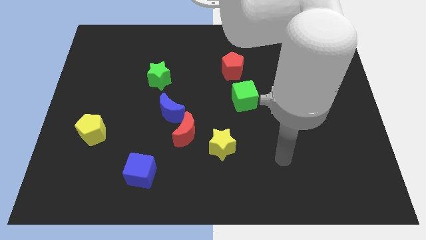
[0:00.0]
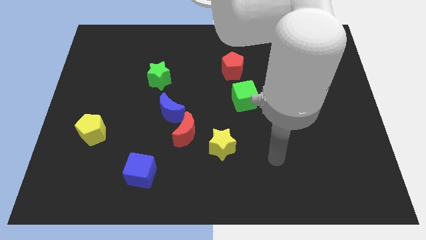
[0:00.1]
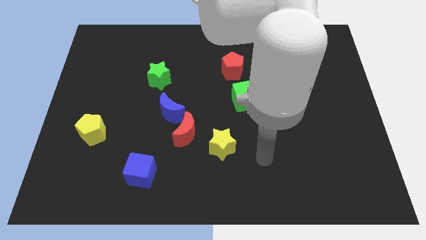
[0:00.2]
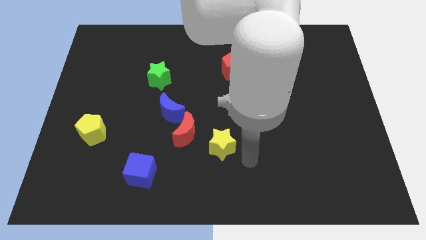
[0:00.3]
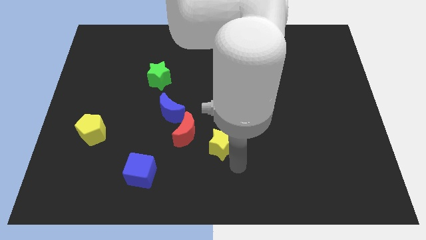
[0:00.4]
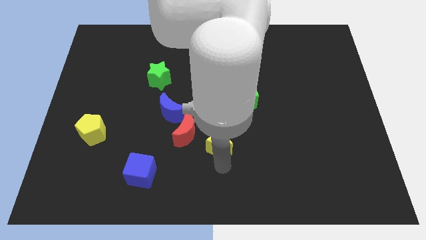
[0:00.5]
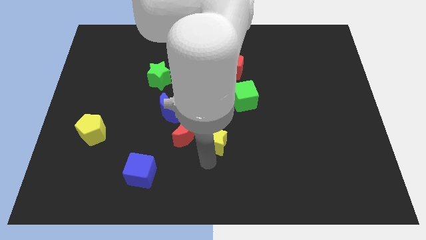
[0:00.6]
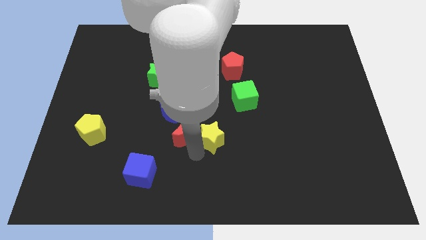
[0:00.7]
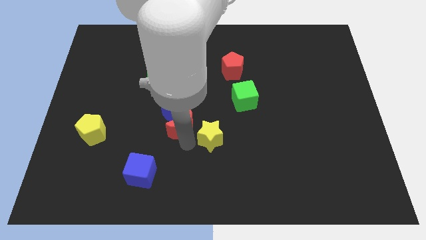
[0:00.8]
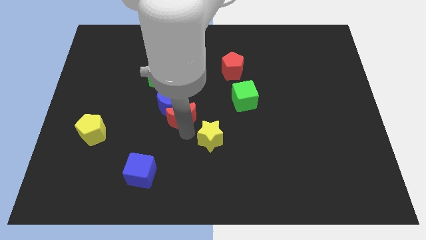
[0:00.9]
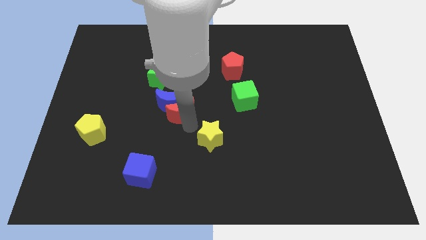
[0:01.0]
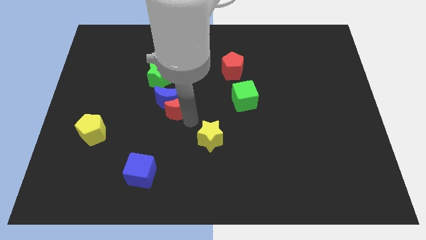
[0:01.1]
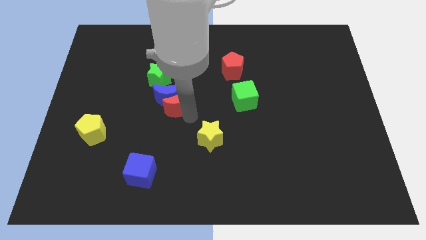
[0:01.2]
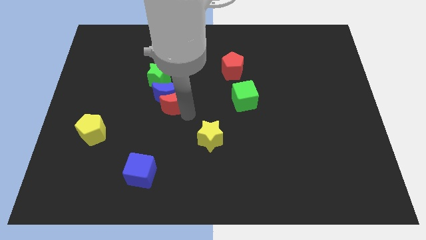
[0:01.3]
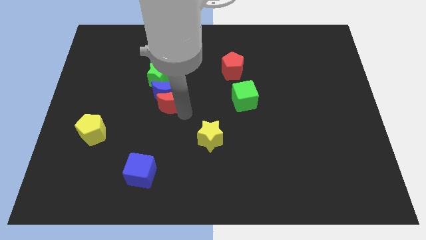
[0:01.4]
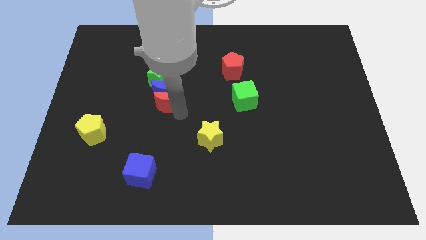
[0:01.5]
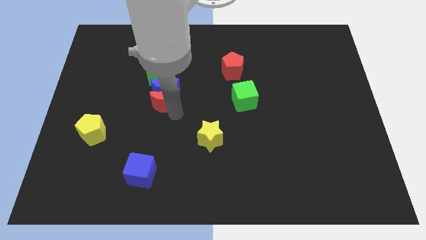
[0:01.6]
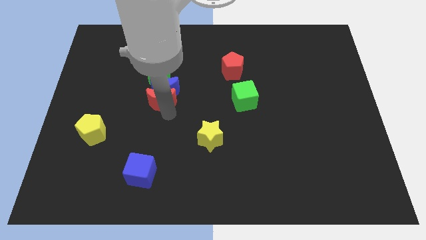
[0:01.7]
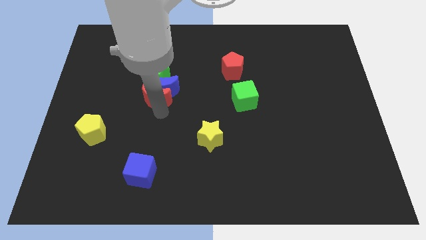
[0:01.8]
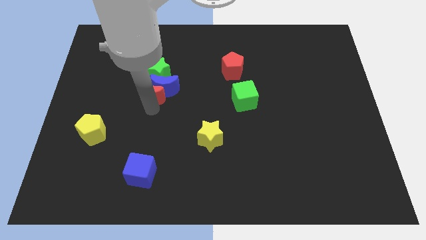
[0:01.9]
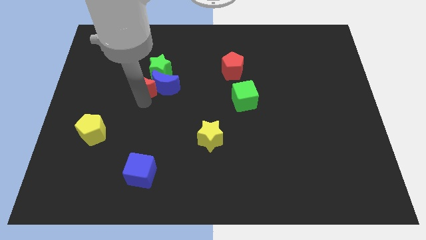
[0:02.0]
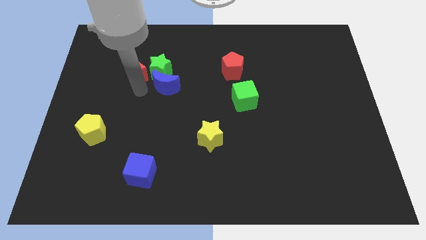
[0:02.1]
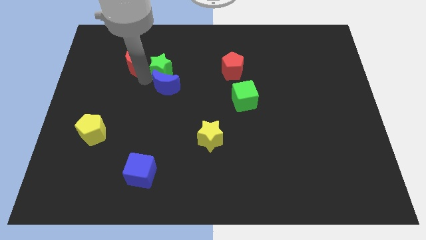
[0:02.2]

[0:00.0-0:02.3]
separate the blue moon from the red moon

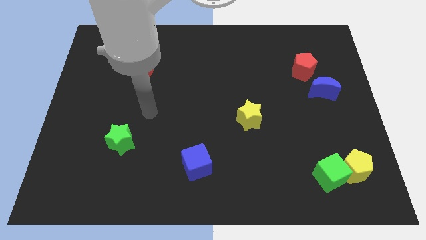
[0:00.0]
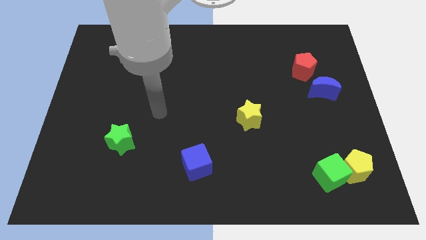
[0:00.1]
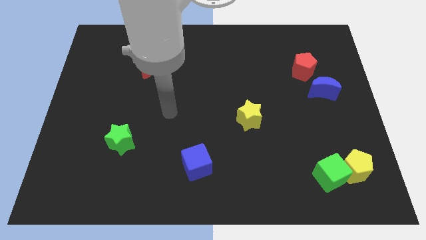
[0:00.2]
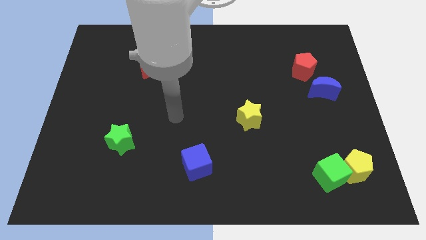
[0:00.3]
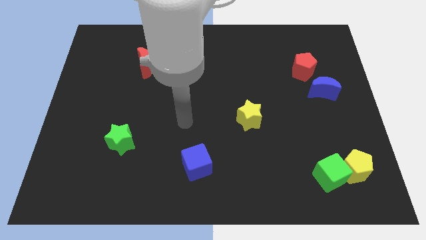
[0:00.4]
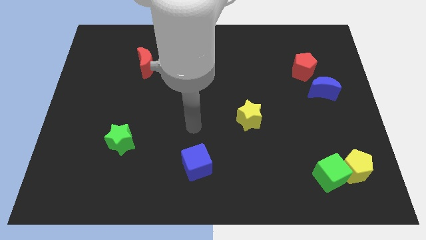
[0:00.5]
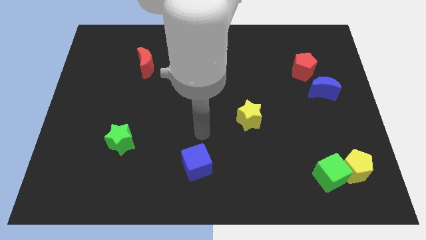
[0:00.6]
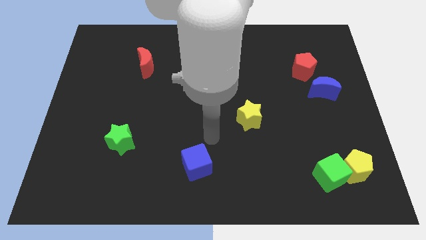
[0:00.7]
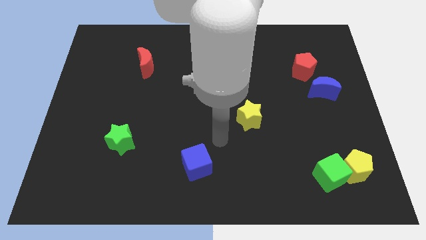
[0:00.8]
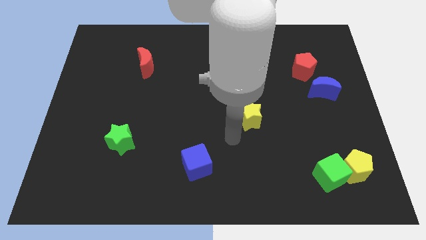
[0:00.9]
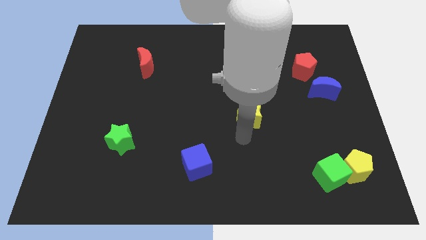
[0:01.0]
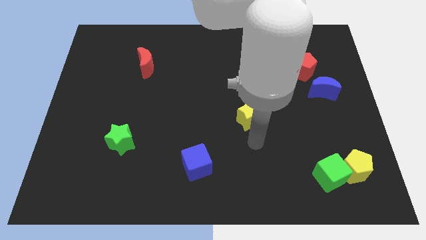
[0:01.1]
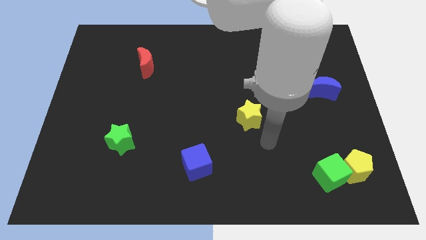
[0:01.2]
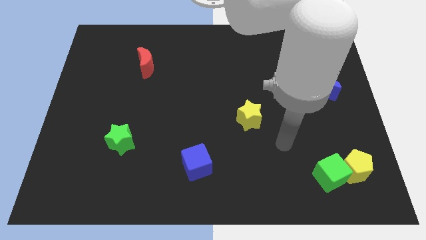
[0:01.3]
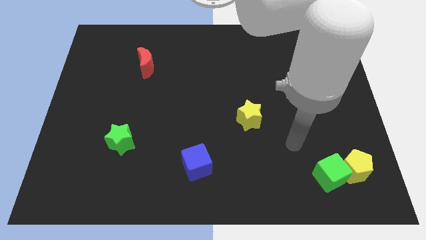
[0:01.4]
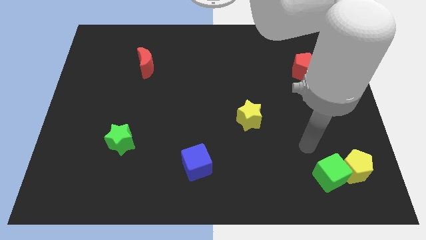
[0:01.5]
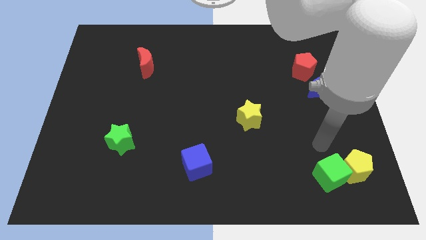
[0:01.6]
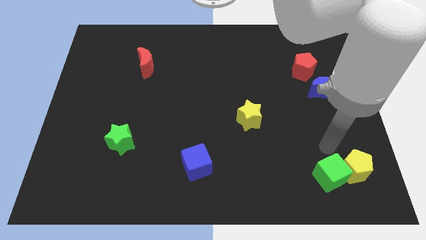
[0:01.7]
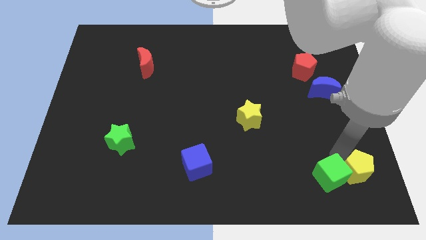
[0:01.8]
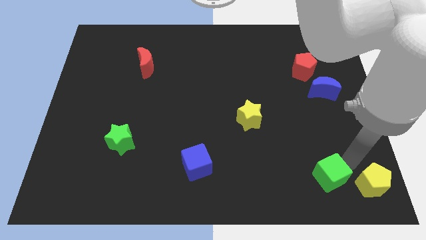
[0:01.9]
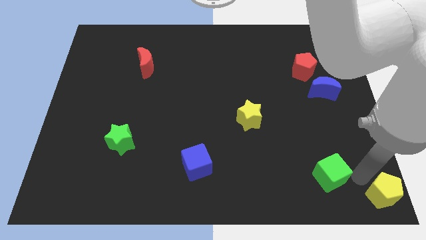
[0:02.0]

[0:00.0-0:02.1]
move the green cube away from the yellow pentagon

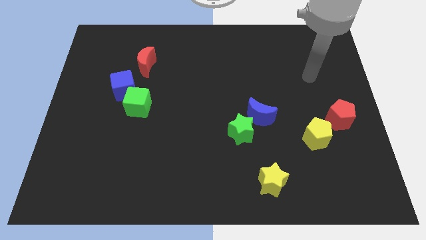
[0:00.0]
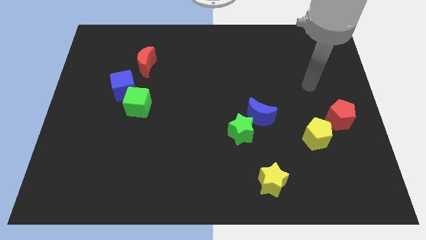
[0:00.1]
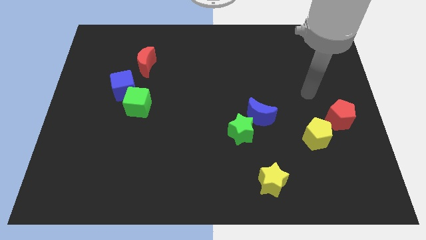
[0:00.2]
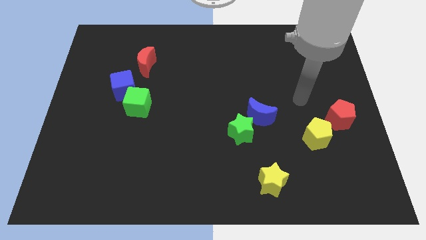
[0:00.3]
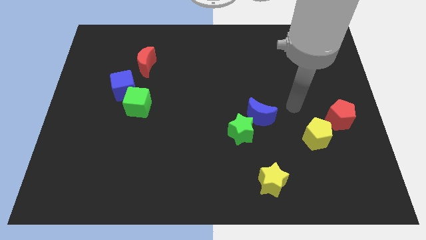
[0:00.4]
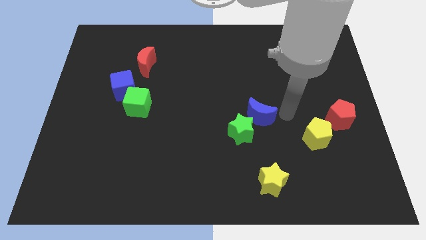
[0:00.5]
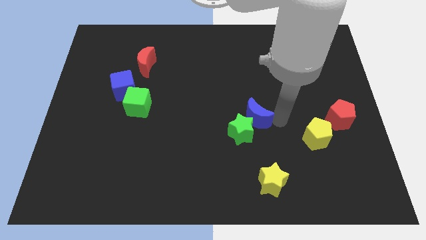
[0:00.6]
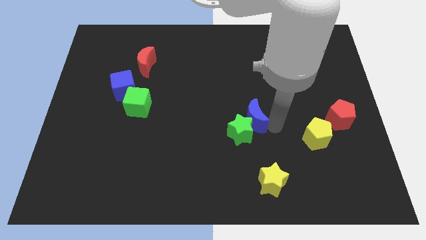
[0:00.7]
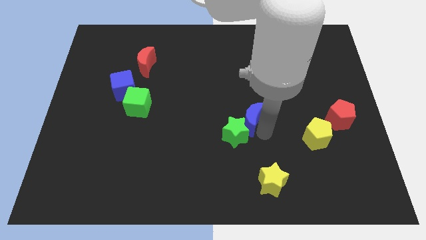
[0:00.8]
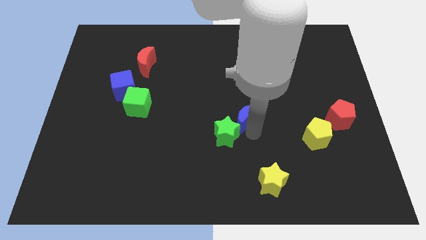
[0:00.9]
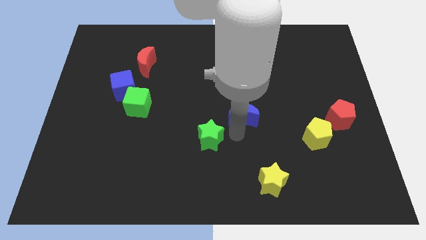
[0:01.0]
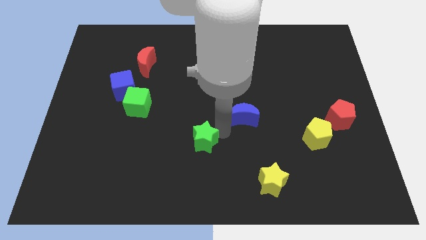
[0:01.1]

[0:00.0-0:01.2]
move the blue moon away from the green star

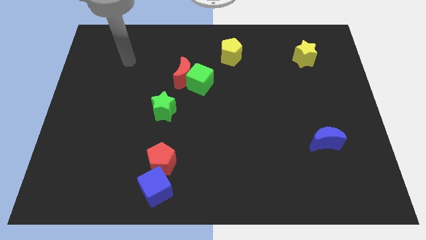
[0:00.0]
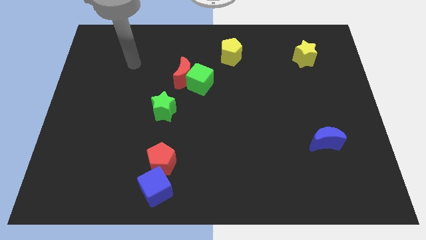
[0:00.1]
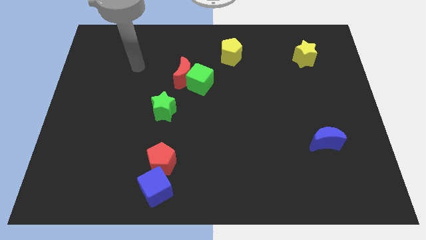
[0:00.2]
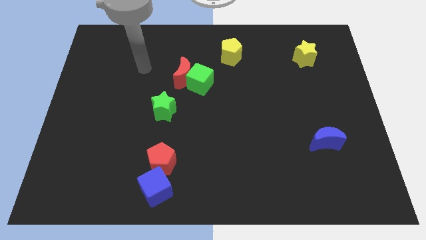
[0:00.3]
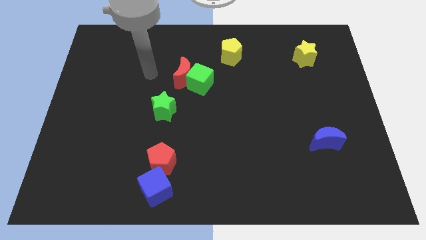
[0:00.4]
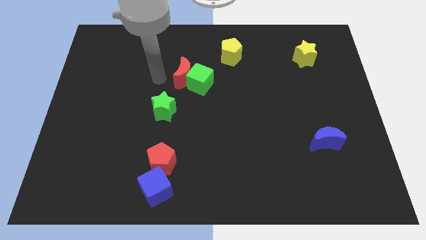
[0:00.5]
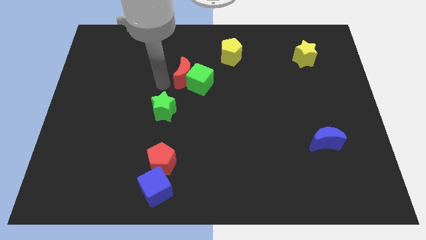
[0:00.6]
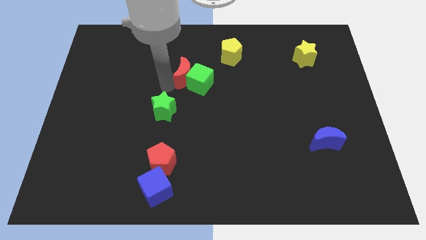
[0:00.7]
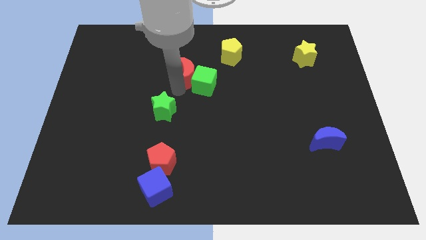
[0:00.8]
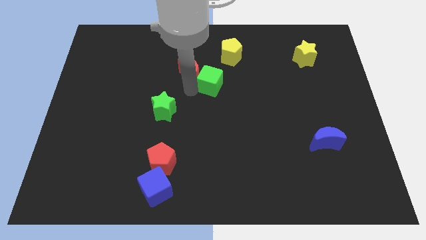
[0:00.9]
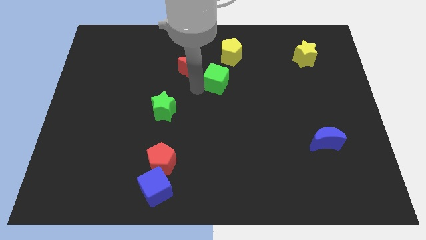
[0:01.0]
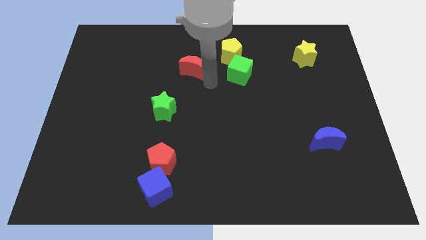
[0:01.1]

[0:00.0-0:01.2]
separate the red moon from the green cube

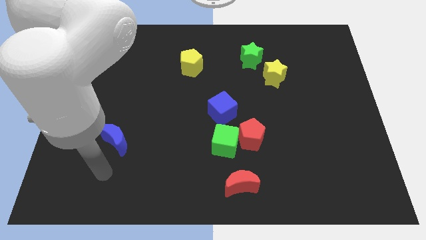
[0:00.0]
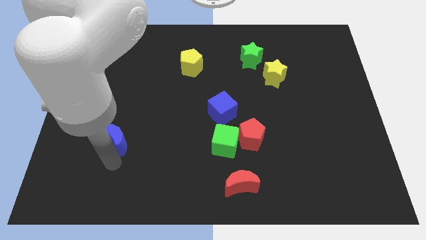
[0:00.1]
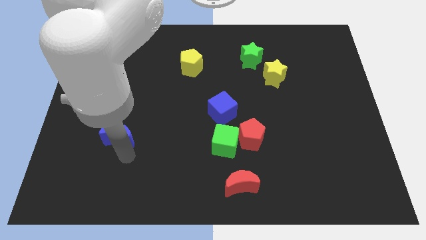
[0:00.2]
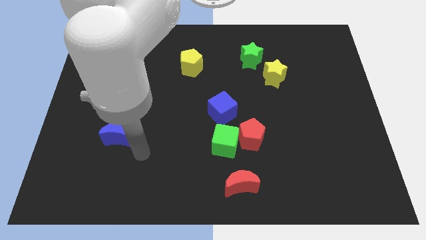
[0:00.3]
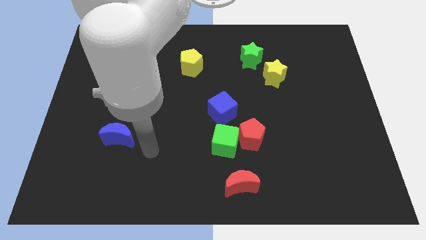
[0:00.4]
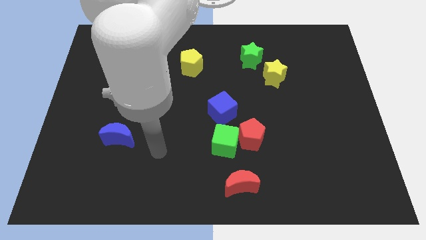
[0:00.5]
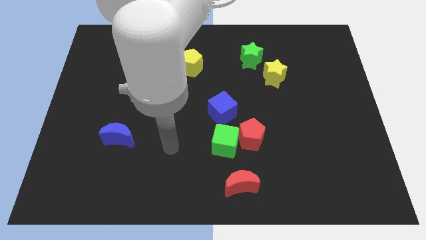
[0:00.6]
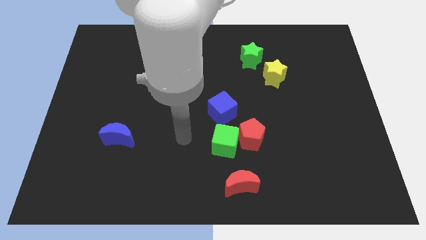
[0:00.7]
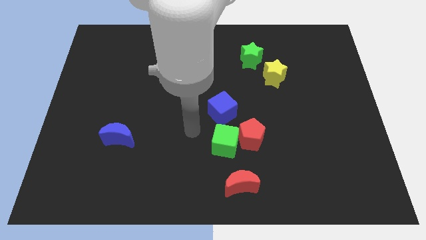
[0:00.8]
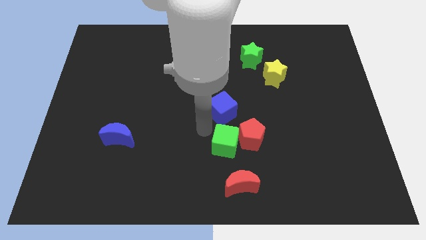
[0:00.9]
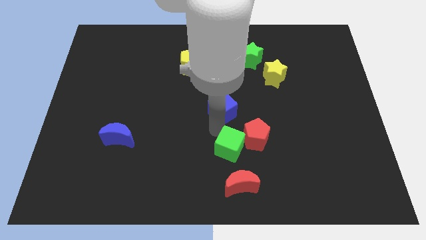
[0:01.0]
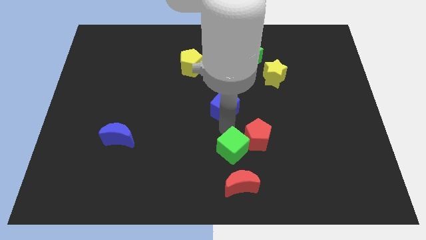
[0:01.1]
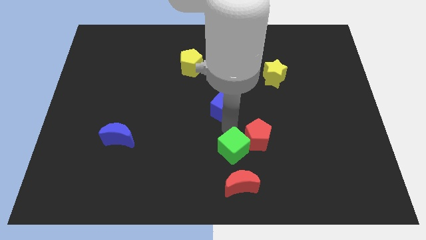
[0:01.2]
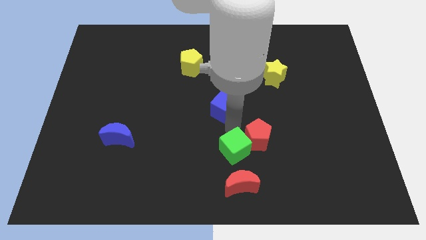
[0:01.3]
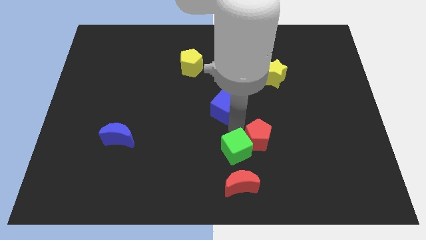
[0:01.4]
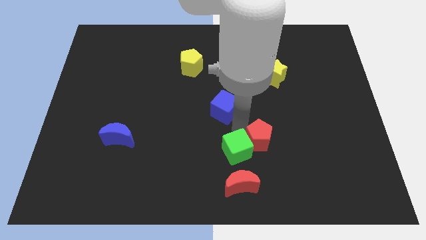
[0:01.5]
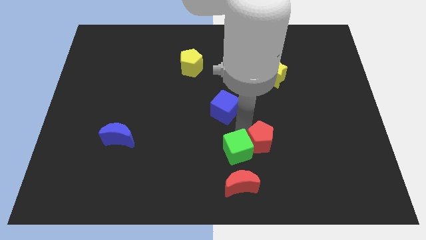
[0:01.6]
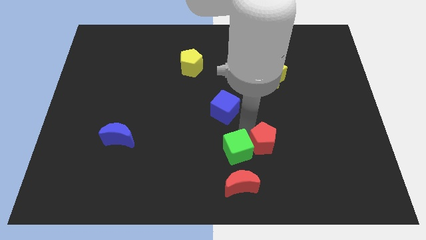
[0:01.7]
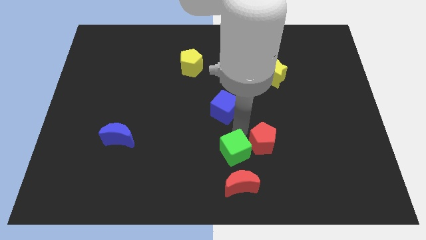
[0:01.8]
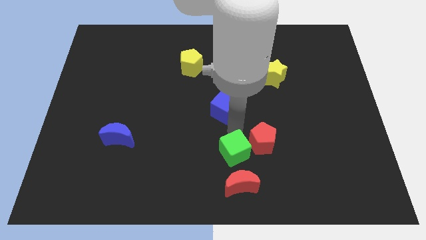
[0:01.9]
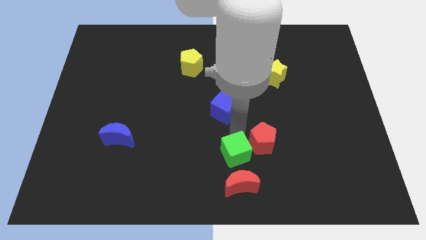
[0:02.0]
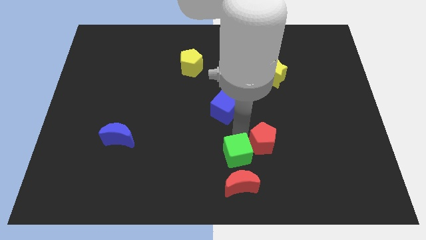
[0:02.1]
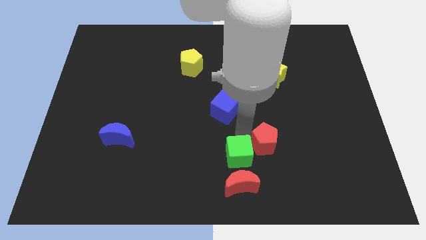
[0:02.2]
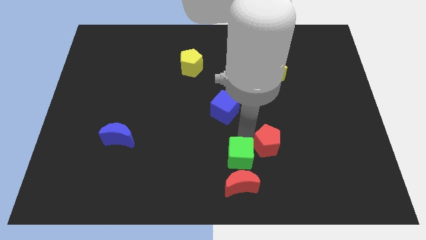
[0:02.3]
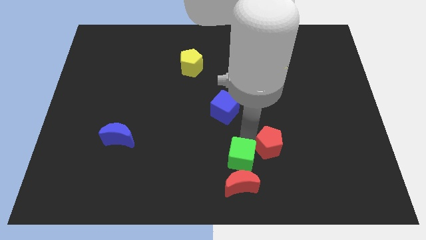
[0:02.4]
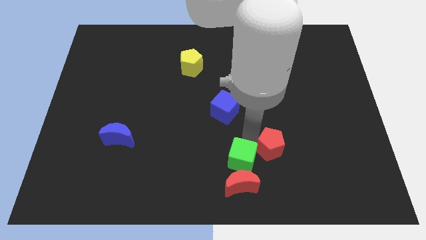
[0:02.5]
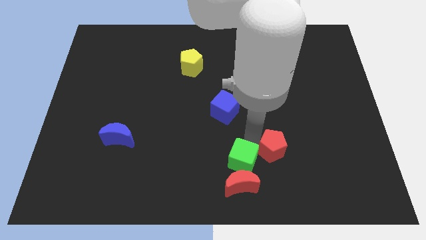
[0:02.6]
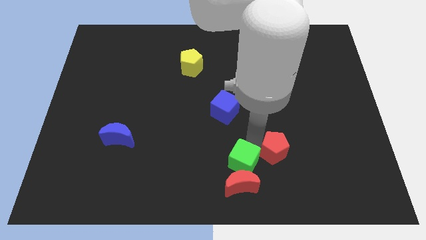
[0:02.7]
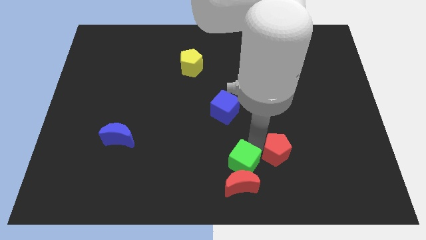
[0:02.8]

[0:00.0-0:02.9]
pull the red pentagon apart from the green cube and blue cube
